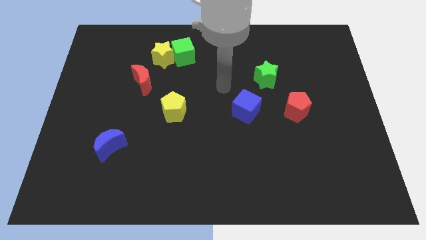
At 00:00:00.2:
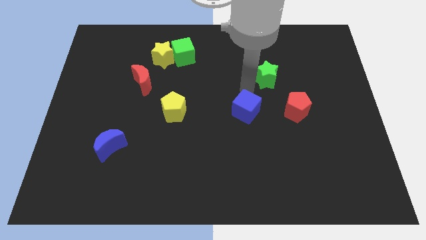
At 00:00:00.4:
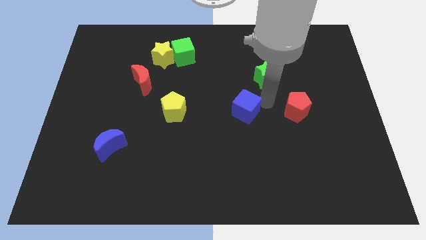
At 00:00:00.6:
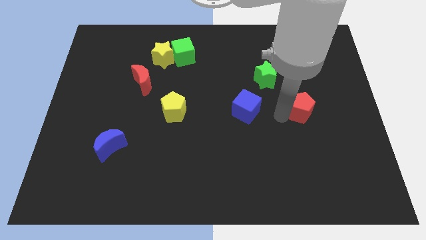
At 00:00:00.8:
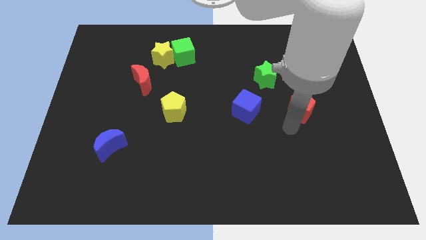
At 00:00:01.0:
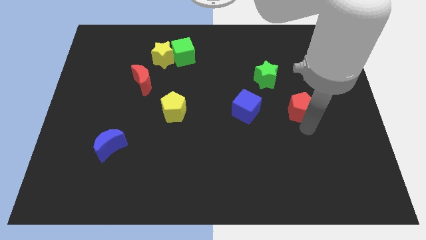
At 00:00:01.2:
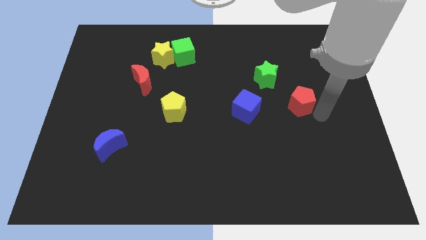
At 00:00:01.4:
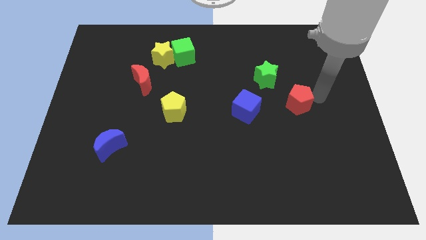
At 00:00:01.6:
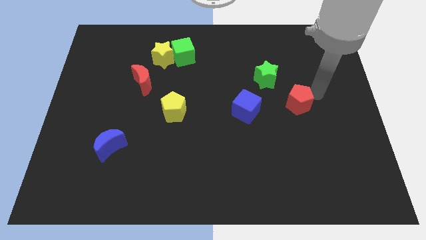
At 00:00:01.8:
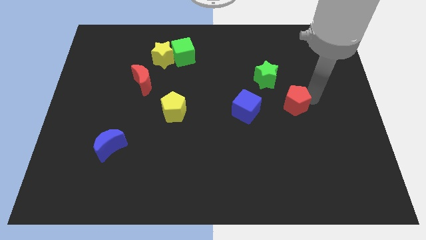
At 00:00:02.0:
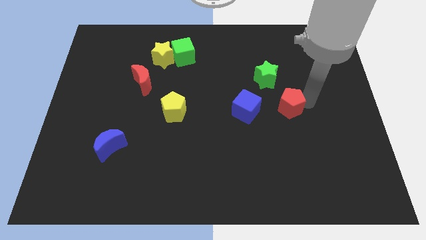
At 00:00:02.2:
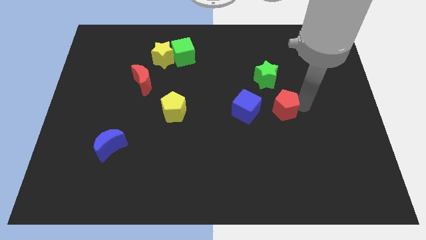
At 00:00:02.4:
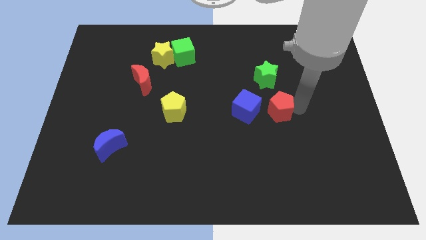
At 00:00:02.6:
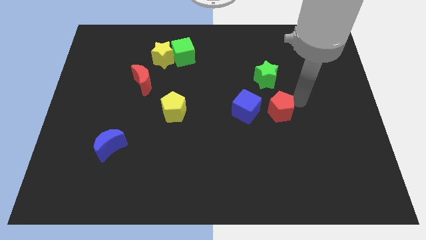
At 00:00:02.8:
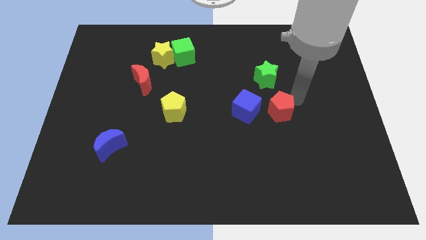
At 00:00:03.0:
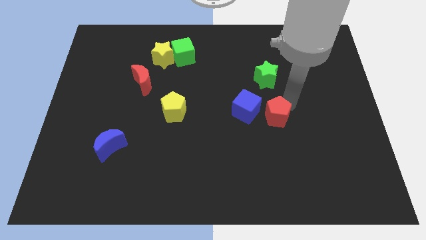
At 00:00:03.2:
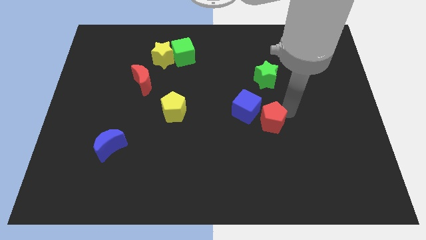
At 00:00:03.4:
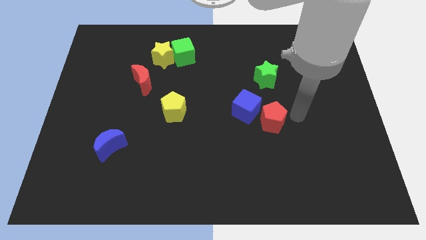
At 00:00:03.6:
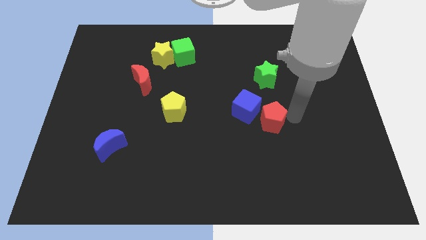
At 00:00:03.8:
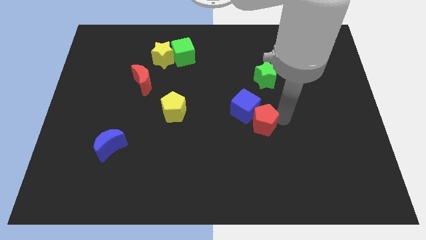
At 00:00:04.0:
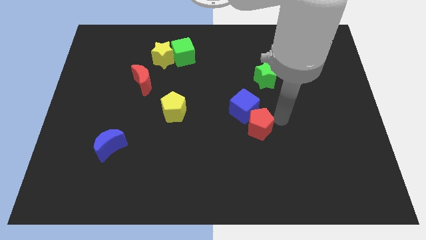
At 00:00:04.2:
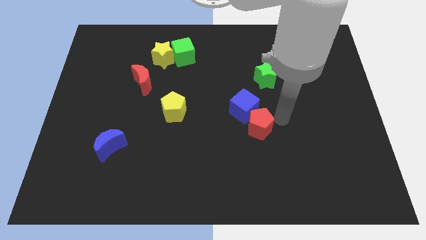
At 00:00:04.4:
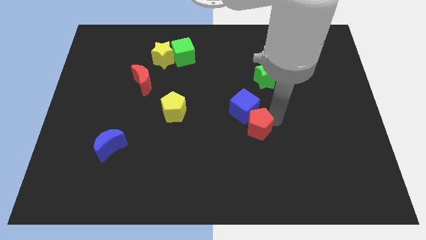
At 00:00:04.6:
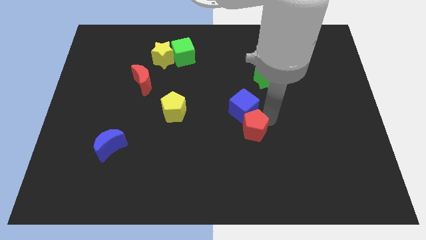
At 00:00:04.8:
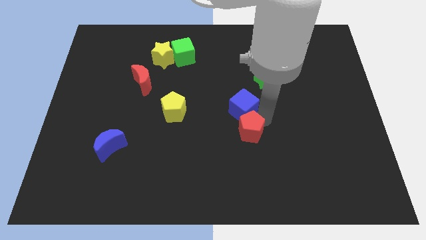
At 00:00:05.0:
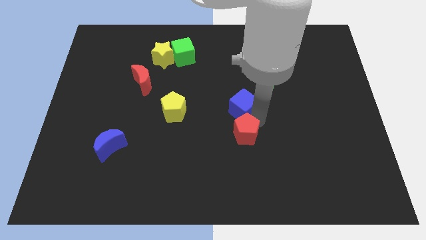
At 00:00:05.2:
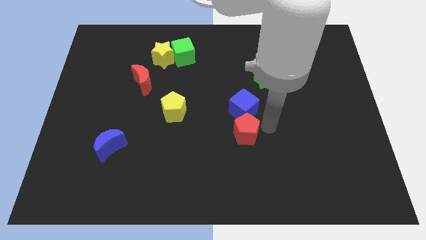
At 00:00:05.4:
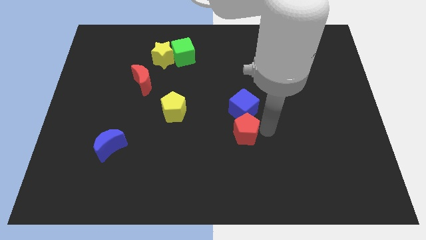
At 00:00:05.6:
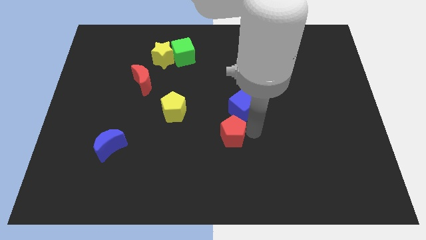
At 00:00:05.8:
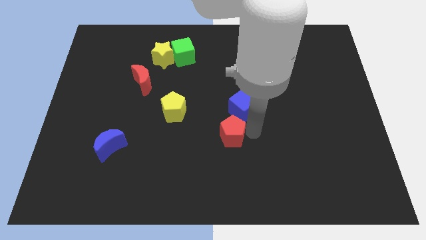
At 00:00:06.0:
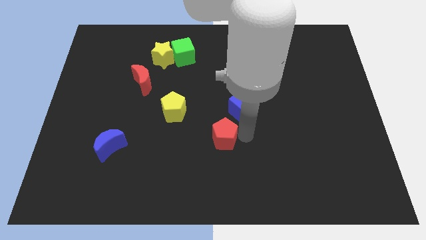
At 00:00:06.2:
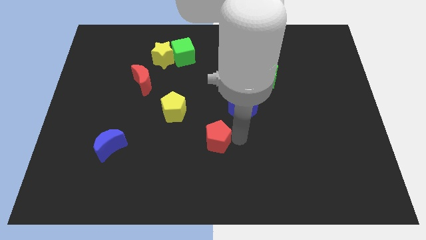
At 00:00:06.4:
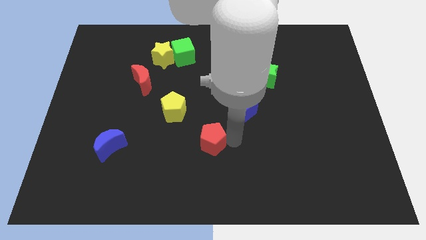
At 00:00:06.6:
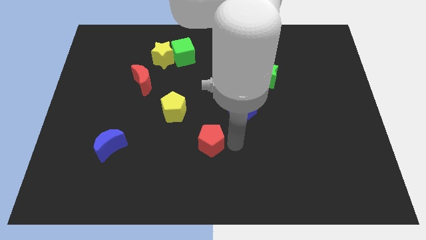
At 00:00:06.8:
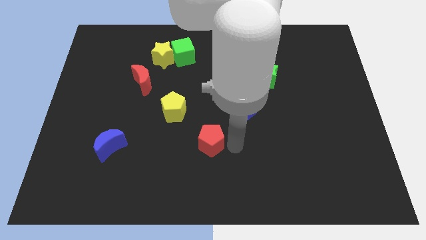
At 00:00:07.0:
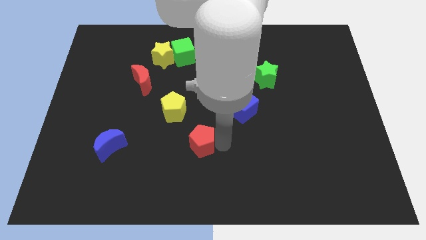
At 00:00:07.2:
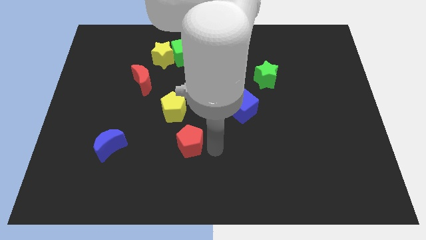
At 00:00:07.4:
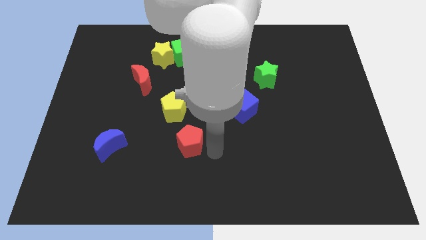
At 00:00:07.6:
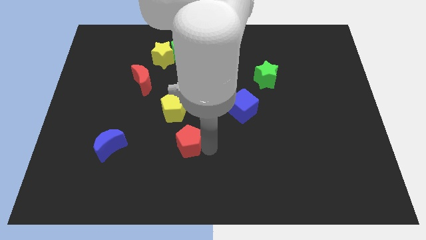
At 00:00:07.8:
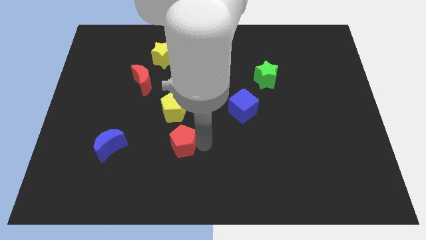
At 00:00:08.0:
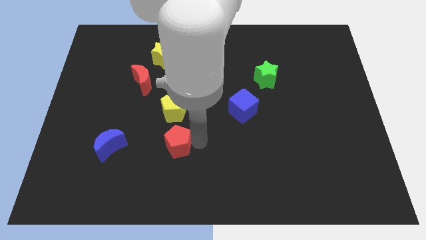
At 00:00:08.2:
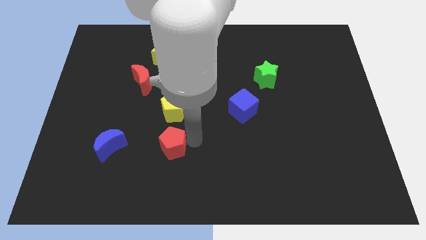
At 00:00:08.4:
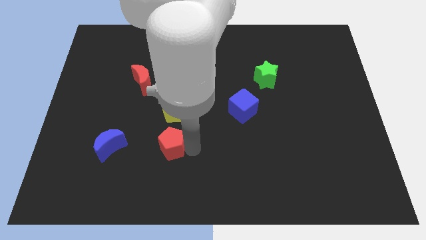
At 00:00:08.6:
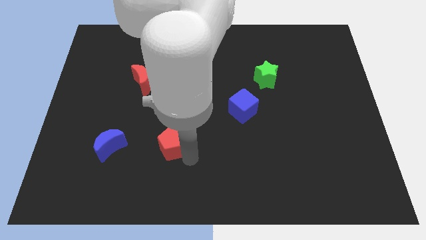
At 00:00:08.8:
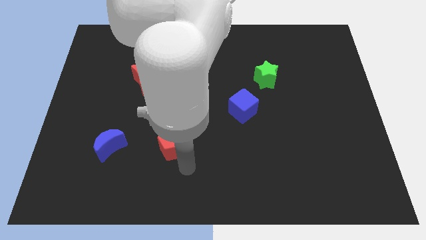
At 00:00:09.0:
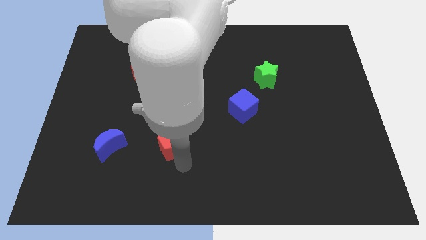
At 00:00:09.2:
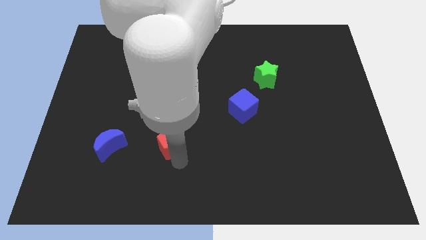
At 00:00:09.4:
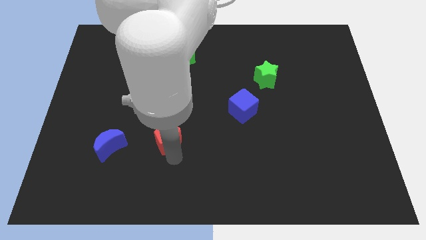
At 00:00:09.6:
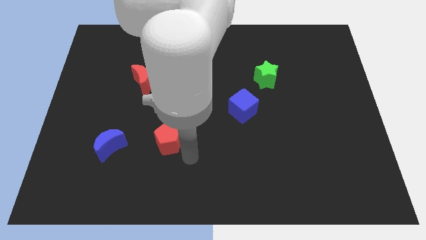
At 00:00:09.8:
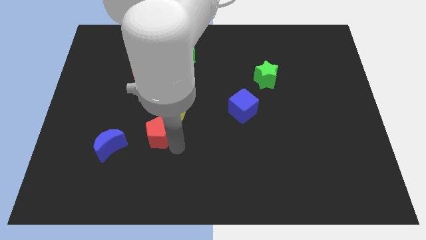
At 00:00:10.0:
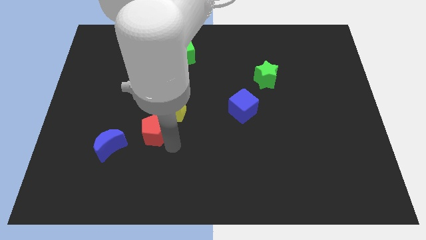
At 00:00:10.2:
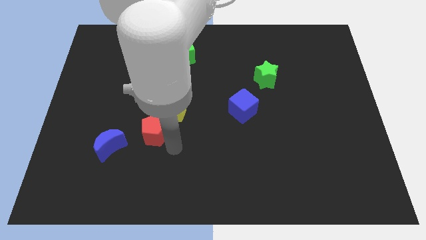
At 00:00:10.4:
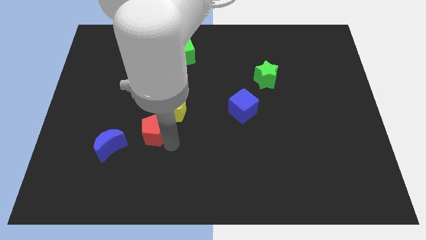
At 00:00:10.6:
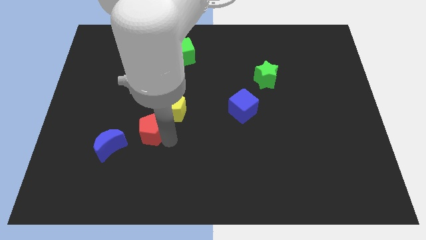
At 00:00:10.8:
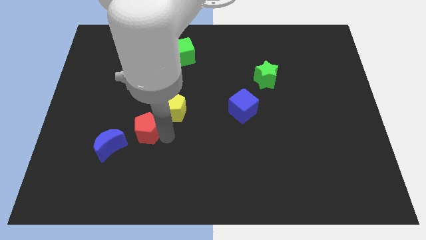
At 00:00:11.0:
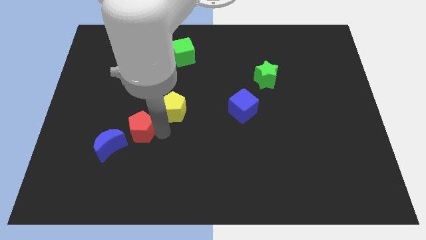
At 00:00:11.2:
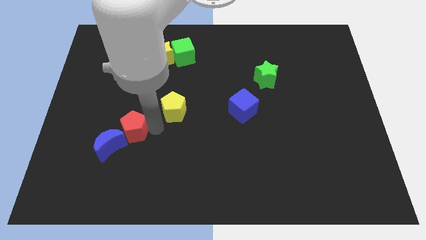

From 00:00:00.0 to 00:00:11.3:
move the red pentagon to the top side of the blue moon
